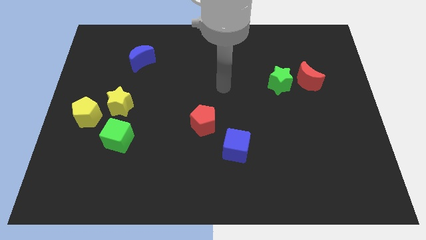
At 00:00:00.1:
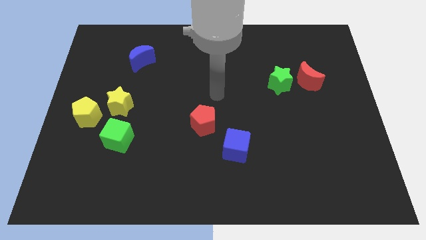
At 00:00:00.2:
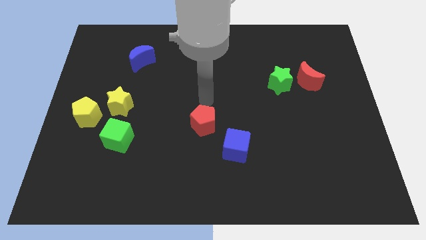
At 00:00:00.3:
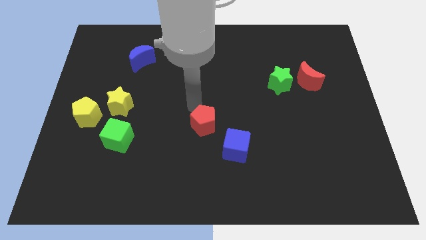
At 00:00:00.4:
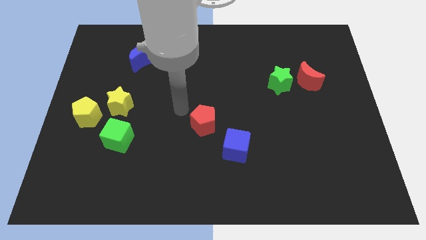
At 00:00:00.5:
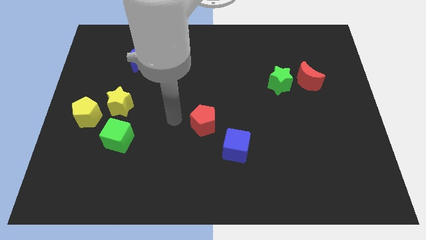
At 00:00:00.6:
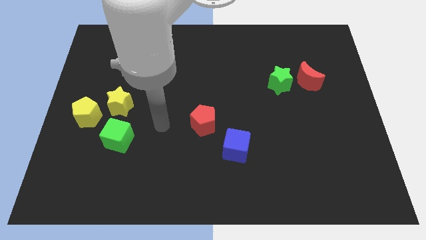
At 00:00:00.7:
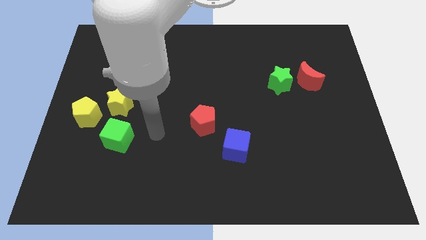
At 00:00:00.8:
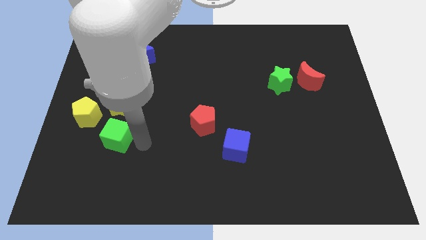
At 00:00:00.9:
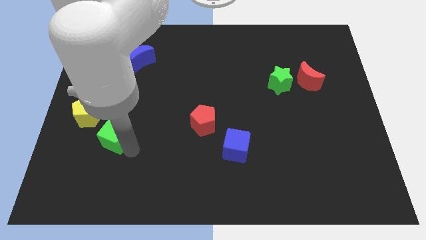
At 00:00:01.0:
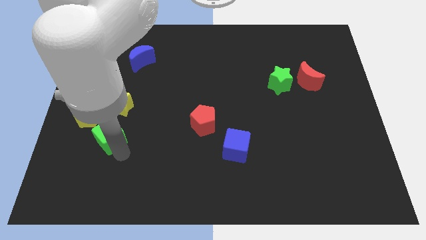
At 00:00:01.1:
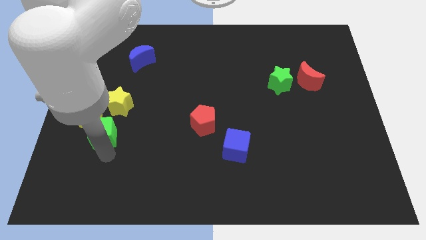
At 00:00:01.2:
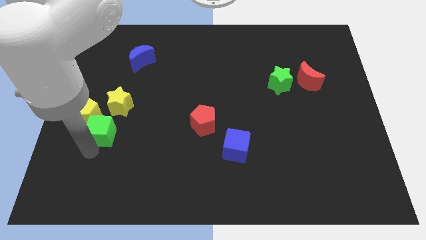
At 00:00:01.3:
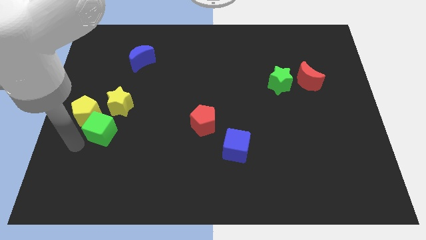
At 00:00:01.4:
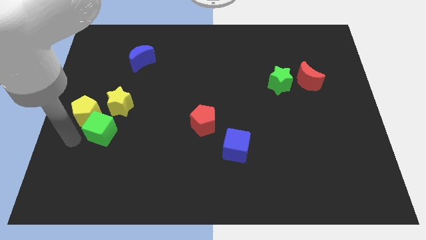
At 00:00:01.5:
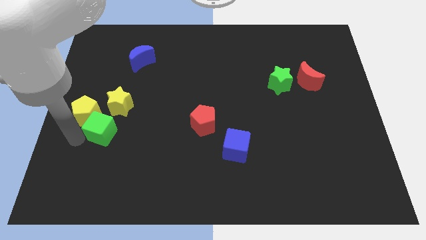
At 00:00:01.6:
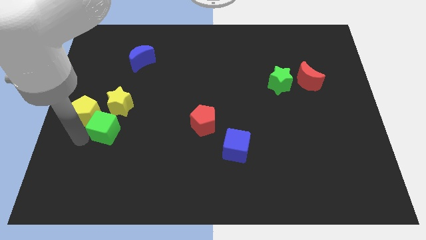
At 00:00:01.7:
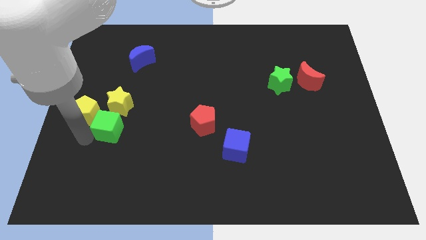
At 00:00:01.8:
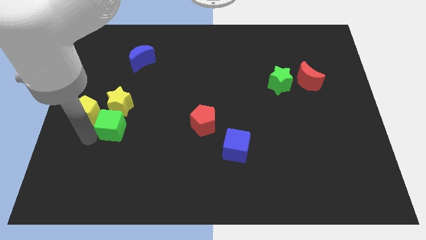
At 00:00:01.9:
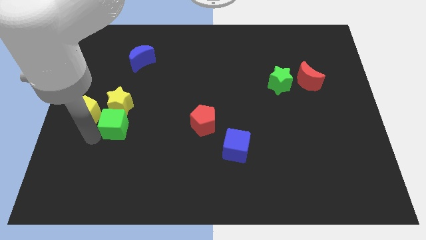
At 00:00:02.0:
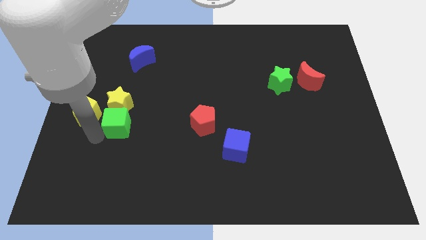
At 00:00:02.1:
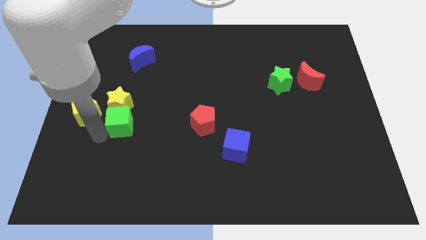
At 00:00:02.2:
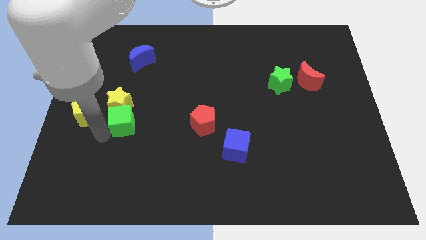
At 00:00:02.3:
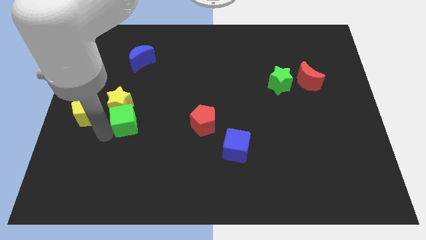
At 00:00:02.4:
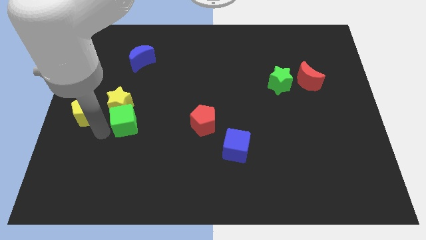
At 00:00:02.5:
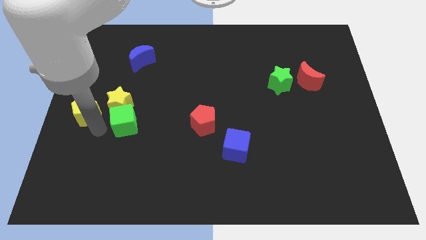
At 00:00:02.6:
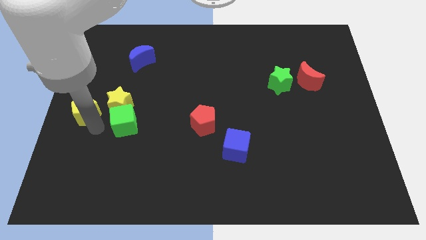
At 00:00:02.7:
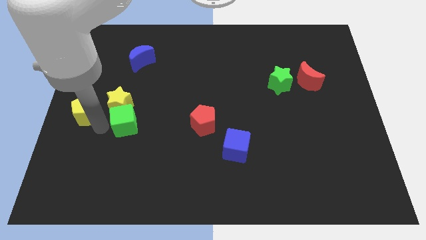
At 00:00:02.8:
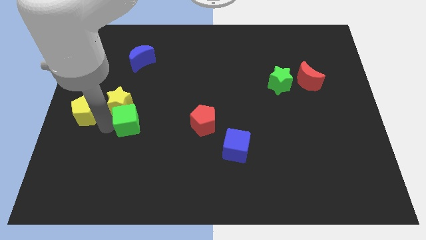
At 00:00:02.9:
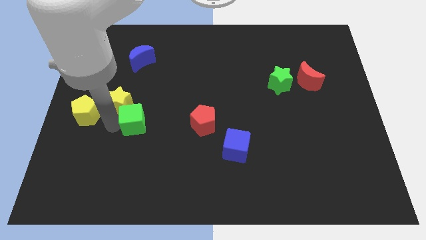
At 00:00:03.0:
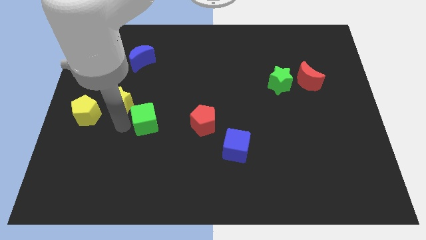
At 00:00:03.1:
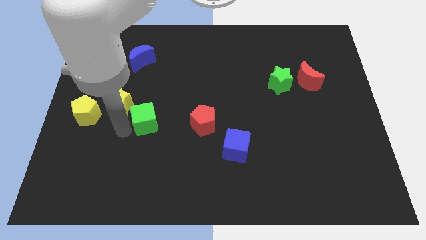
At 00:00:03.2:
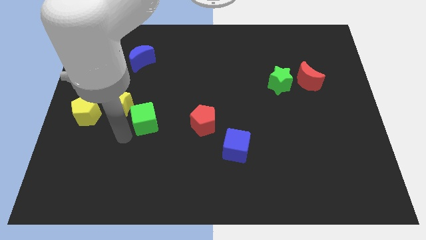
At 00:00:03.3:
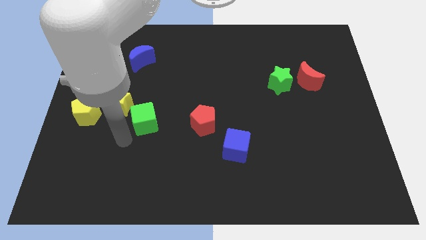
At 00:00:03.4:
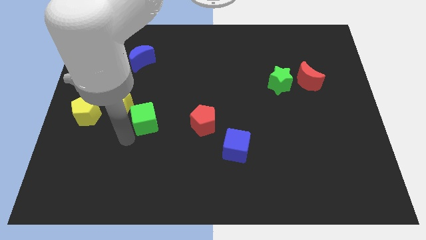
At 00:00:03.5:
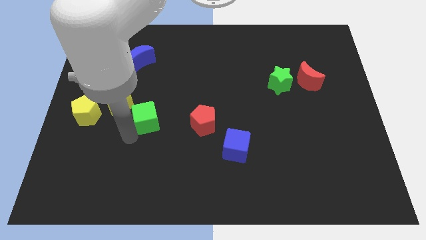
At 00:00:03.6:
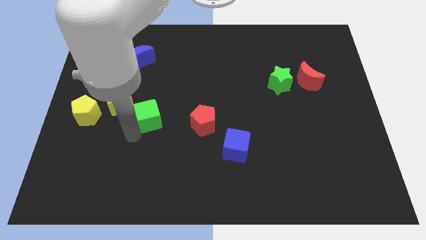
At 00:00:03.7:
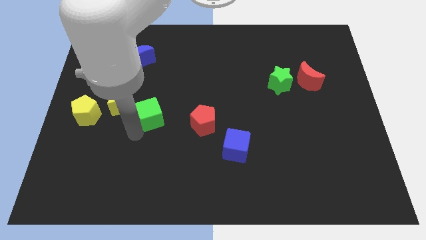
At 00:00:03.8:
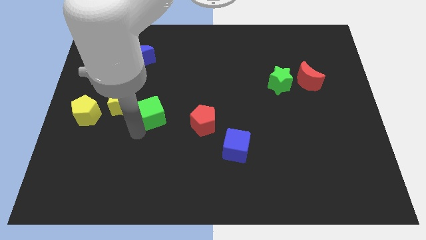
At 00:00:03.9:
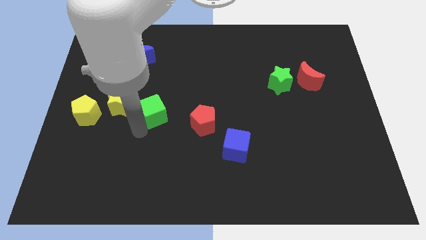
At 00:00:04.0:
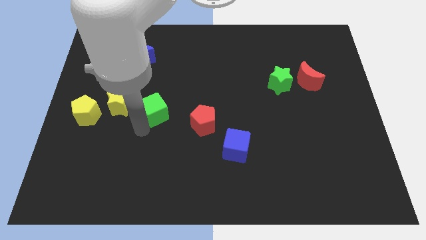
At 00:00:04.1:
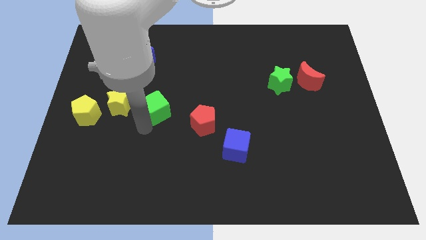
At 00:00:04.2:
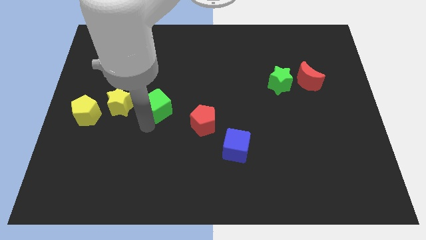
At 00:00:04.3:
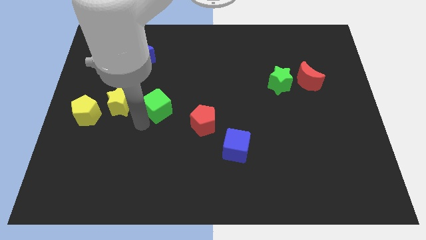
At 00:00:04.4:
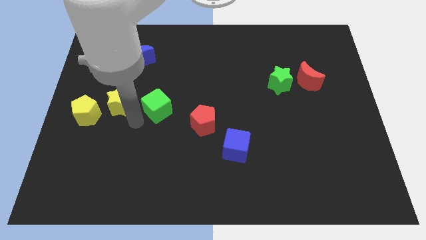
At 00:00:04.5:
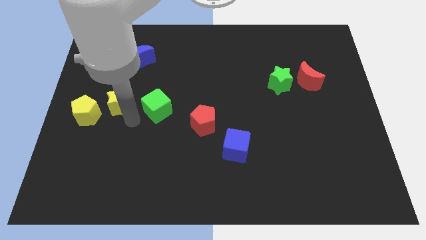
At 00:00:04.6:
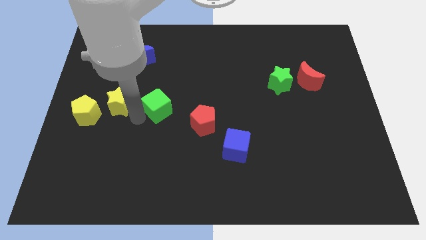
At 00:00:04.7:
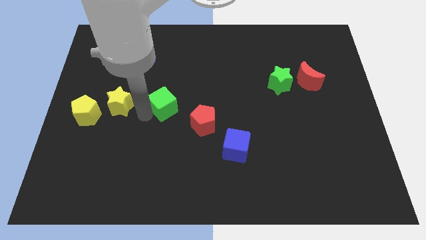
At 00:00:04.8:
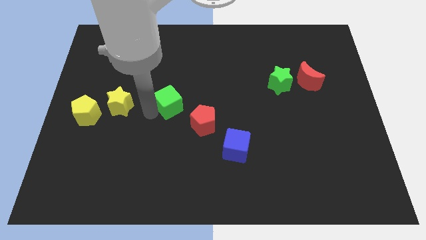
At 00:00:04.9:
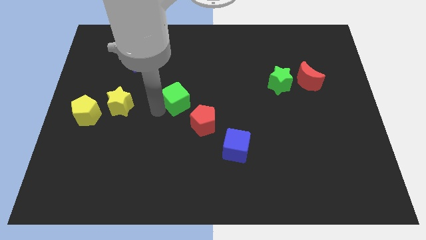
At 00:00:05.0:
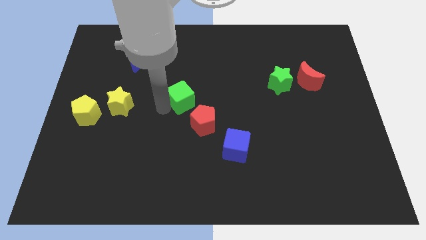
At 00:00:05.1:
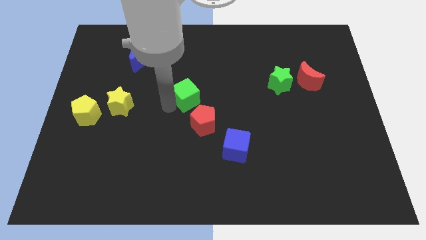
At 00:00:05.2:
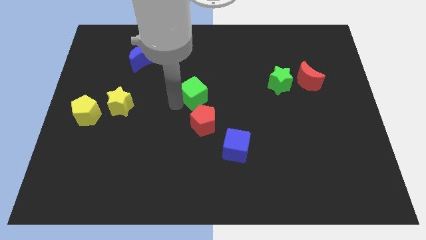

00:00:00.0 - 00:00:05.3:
move the green cube diagonally up and to the right

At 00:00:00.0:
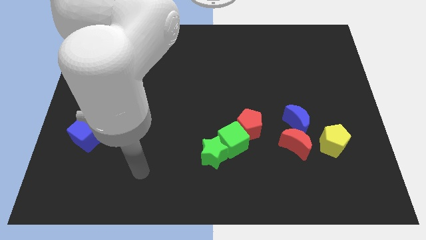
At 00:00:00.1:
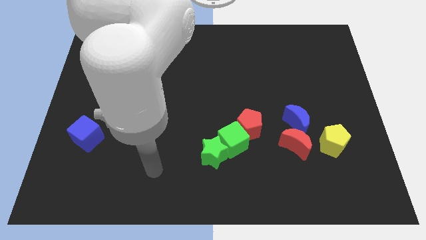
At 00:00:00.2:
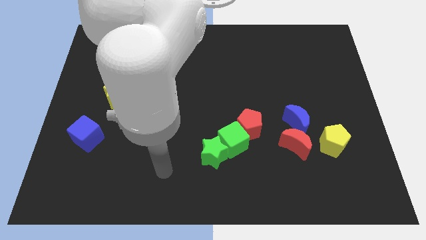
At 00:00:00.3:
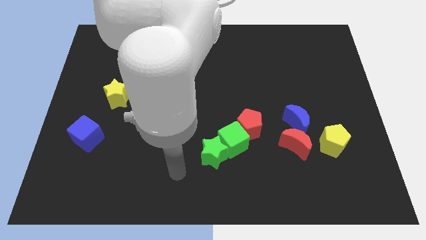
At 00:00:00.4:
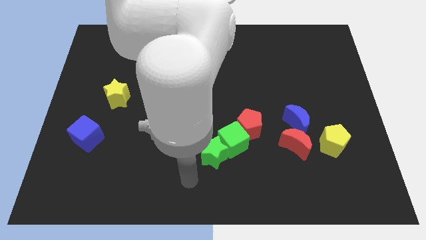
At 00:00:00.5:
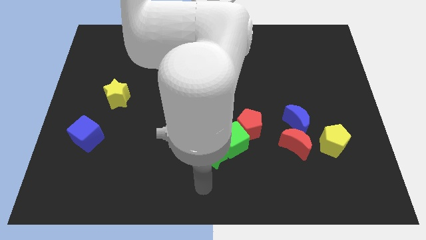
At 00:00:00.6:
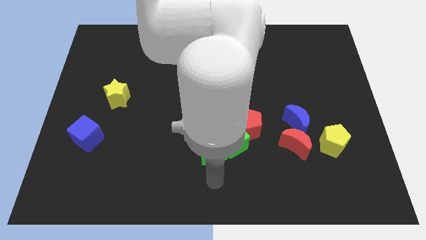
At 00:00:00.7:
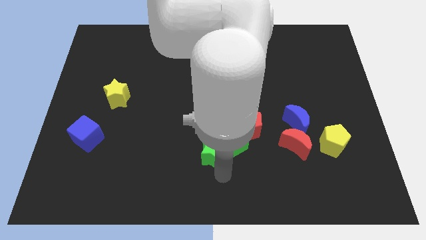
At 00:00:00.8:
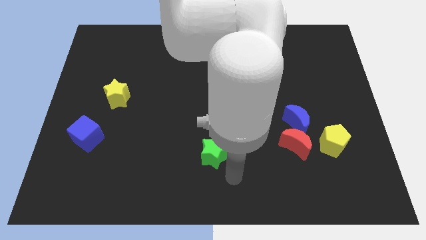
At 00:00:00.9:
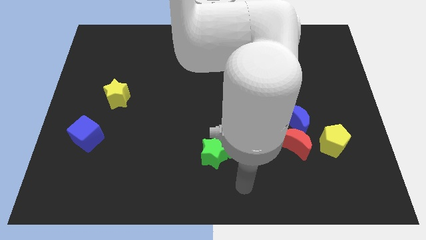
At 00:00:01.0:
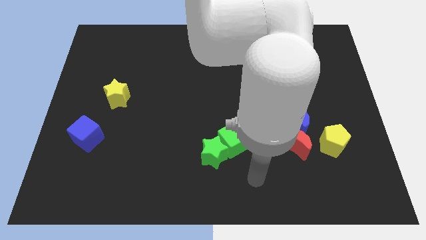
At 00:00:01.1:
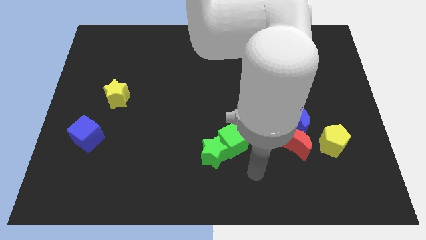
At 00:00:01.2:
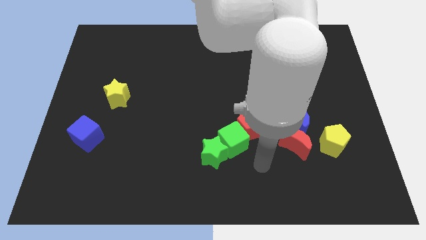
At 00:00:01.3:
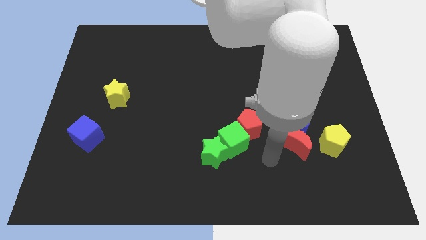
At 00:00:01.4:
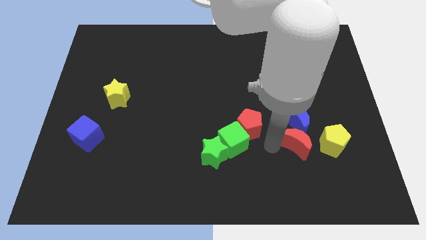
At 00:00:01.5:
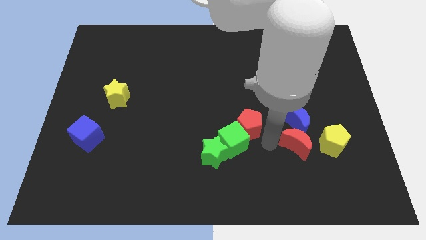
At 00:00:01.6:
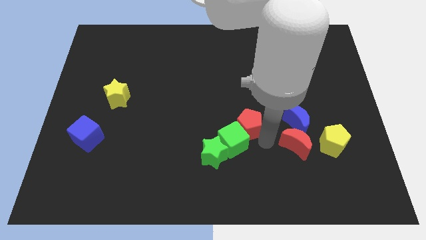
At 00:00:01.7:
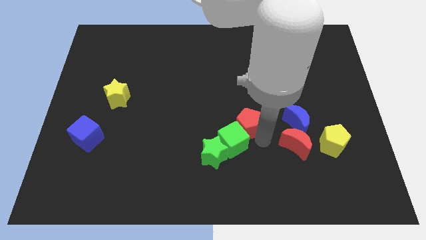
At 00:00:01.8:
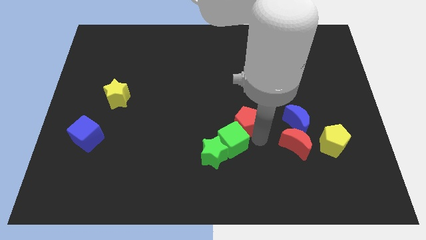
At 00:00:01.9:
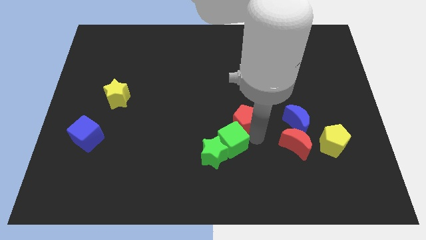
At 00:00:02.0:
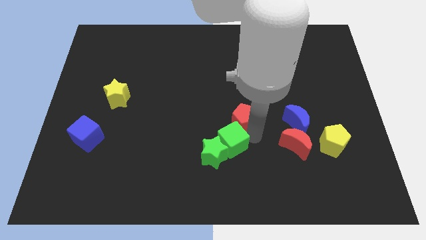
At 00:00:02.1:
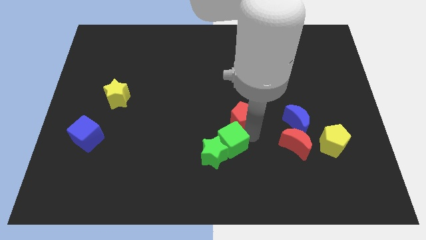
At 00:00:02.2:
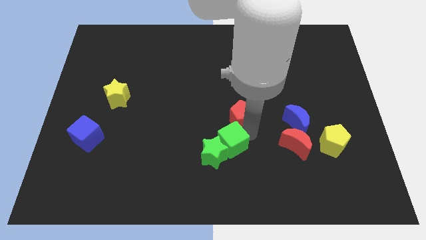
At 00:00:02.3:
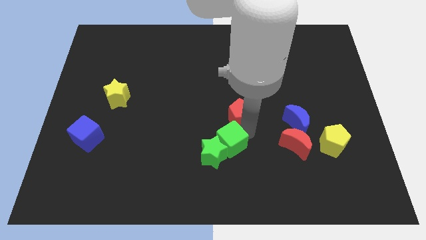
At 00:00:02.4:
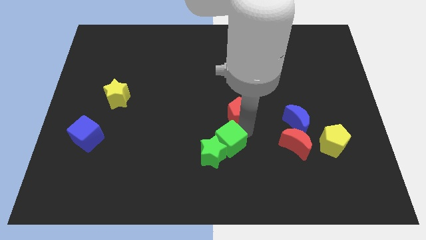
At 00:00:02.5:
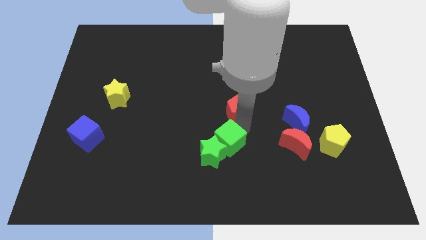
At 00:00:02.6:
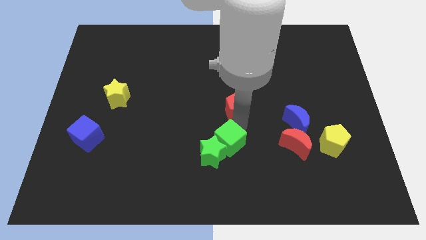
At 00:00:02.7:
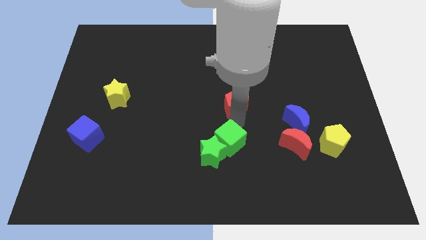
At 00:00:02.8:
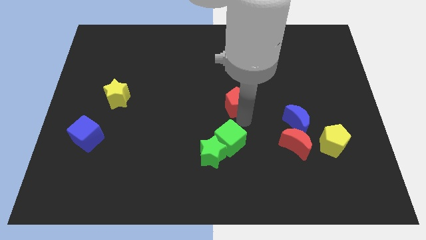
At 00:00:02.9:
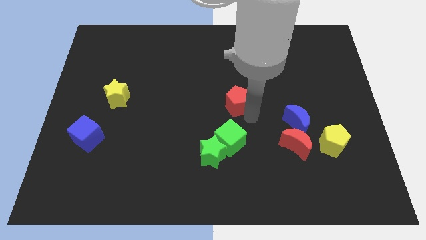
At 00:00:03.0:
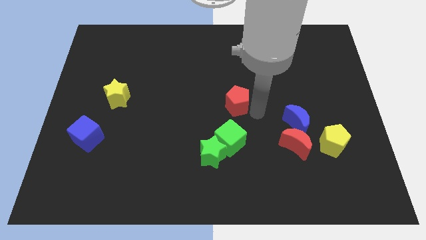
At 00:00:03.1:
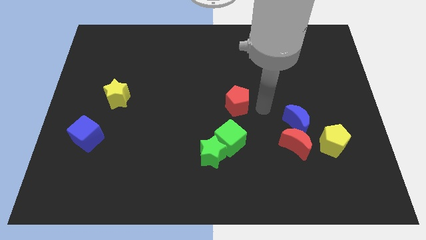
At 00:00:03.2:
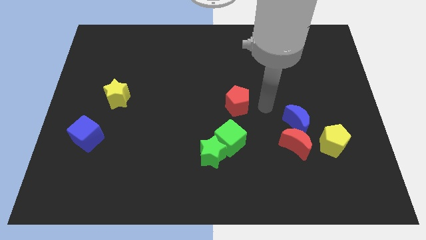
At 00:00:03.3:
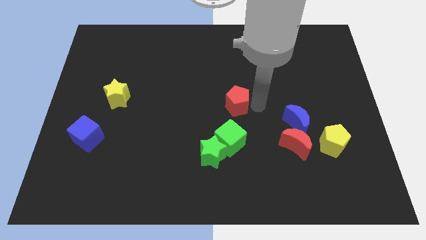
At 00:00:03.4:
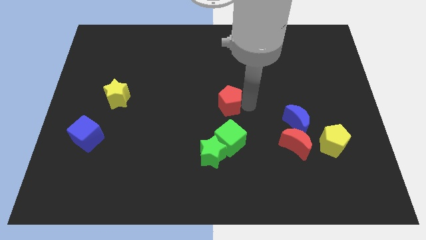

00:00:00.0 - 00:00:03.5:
slightly move the red pentagon diagonally up and to the left
